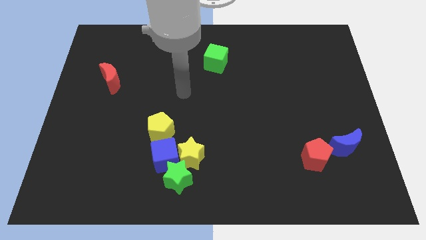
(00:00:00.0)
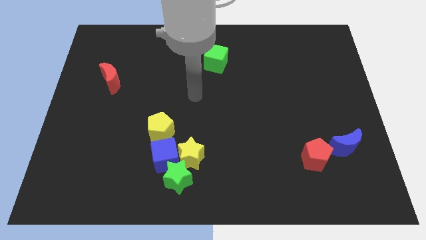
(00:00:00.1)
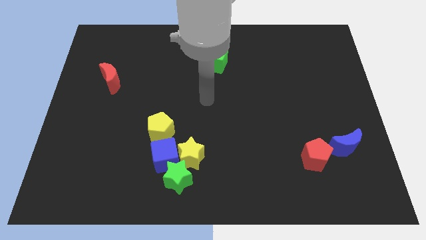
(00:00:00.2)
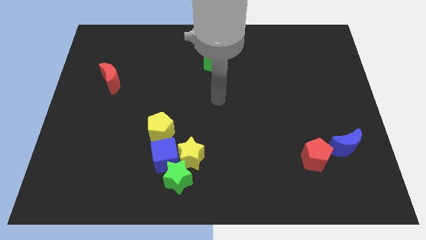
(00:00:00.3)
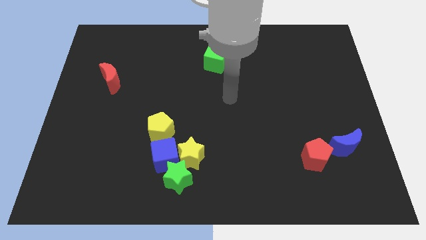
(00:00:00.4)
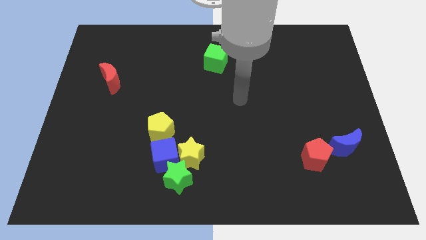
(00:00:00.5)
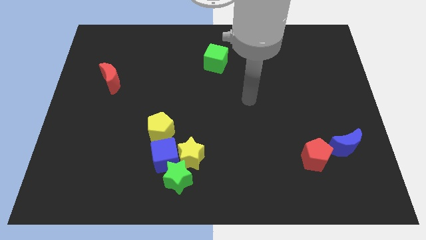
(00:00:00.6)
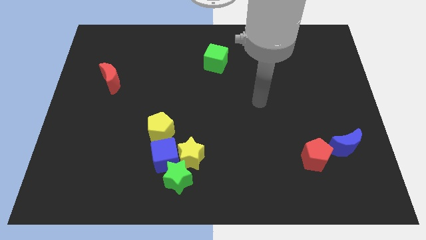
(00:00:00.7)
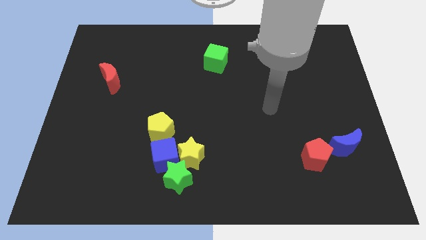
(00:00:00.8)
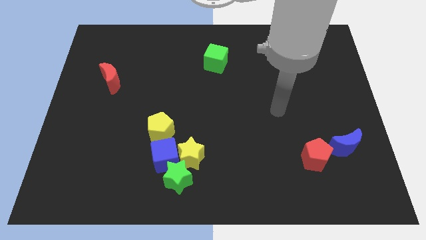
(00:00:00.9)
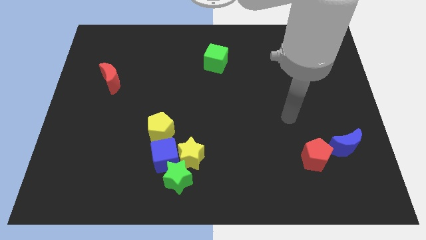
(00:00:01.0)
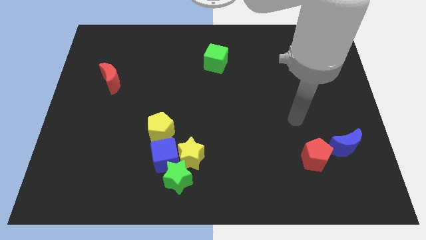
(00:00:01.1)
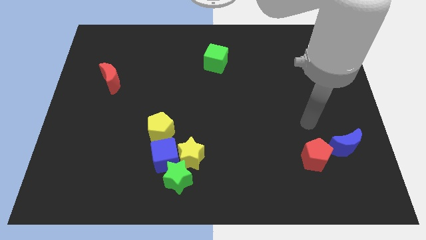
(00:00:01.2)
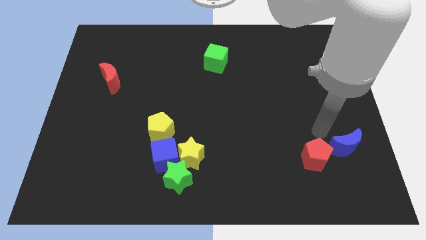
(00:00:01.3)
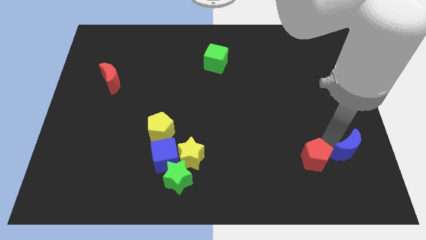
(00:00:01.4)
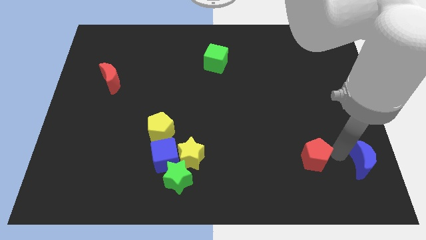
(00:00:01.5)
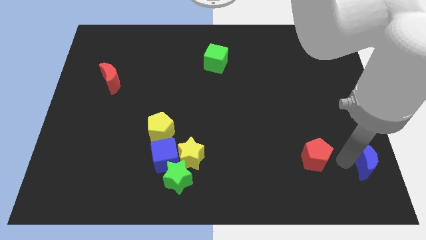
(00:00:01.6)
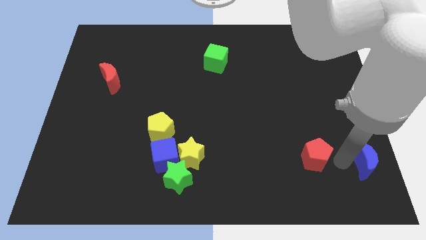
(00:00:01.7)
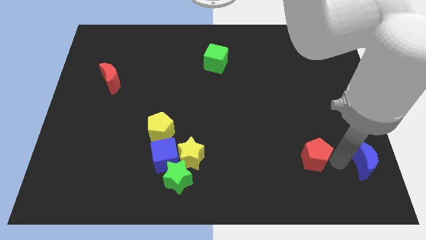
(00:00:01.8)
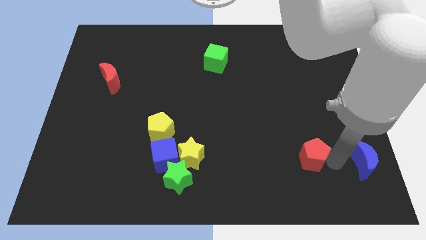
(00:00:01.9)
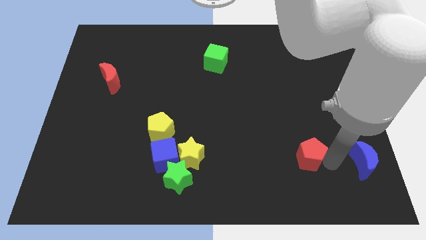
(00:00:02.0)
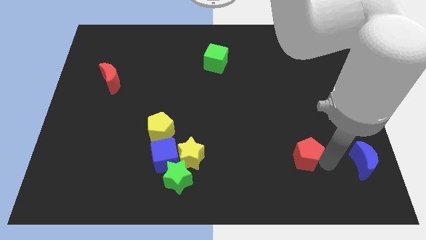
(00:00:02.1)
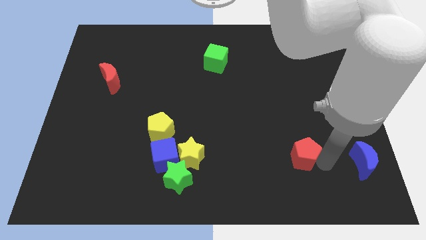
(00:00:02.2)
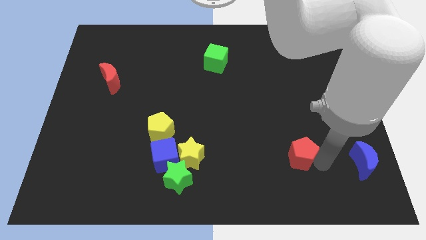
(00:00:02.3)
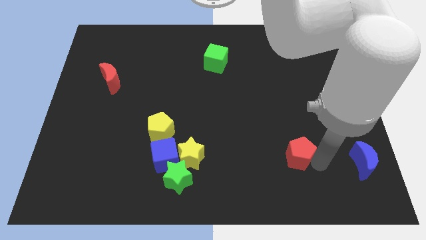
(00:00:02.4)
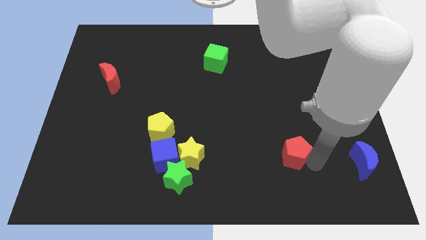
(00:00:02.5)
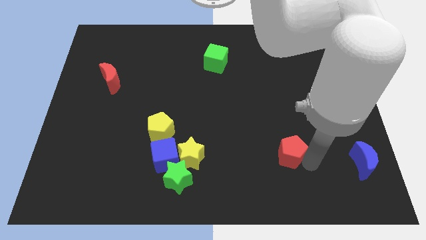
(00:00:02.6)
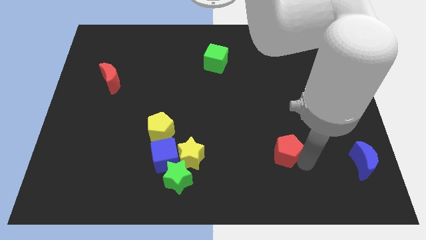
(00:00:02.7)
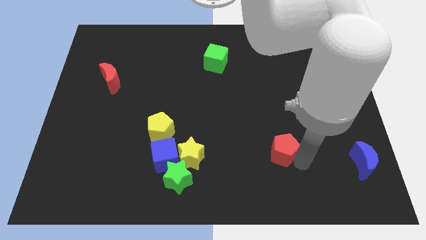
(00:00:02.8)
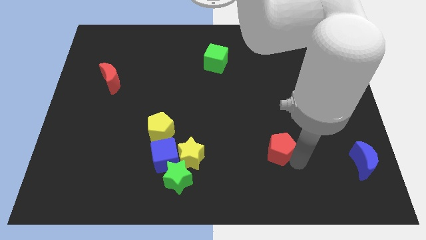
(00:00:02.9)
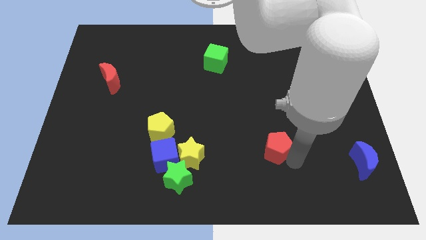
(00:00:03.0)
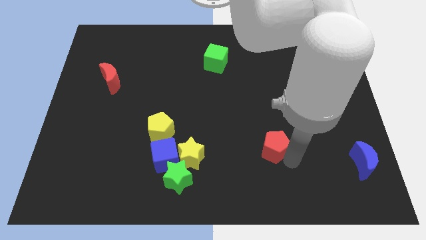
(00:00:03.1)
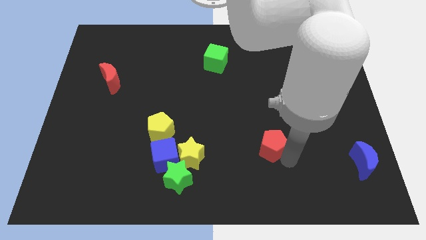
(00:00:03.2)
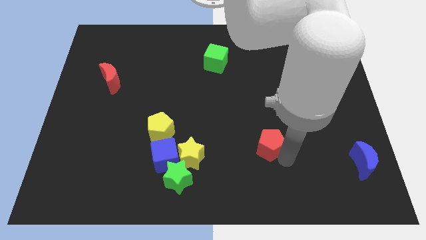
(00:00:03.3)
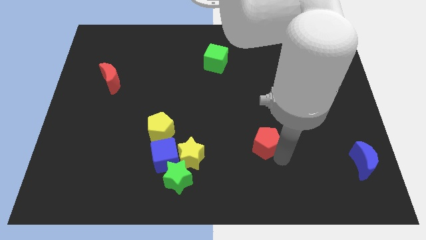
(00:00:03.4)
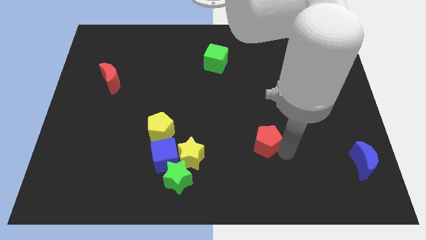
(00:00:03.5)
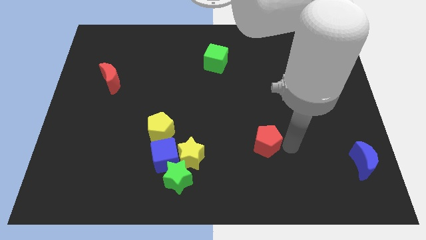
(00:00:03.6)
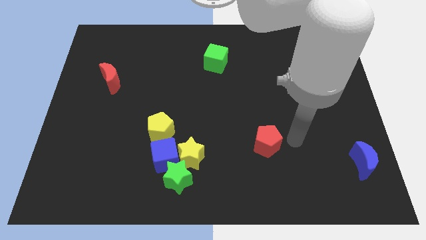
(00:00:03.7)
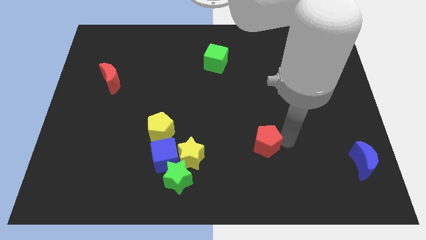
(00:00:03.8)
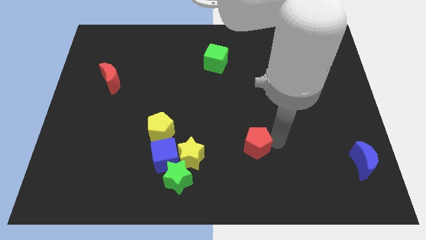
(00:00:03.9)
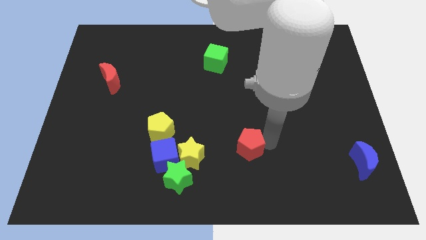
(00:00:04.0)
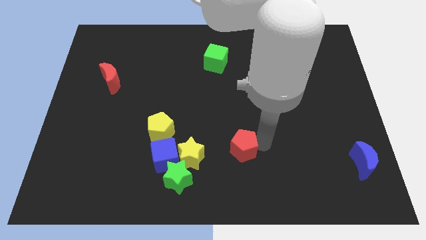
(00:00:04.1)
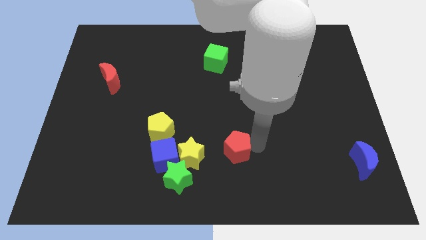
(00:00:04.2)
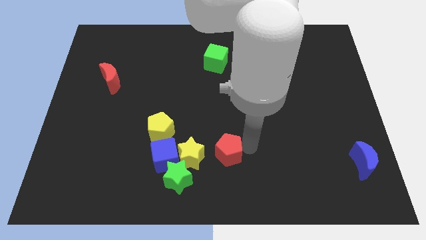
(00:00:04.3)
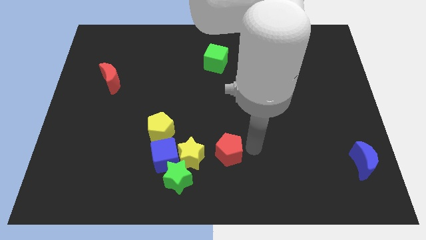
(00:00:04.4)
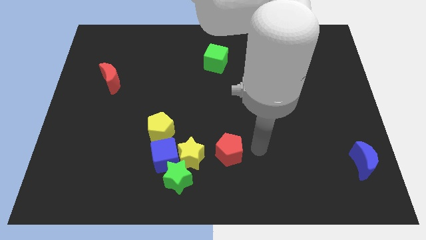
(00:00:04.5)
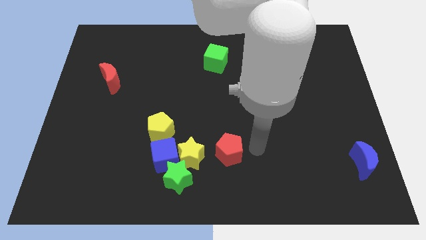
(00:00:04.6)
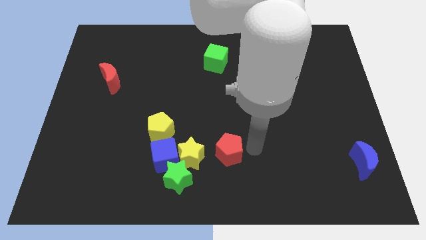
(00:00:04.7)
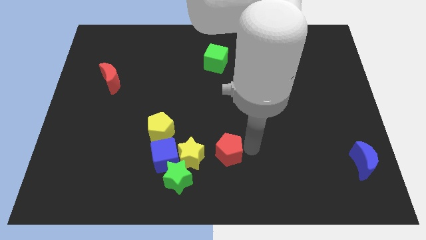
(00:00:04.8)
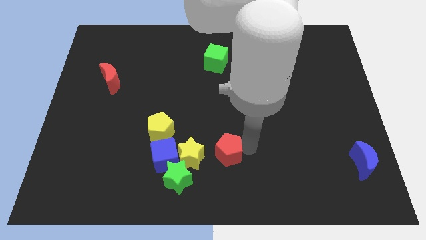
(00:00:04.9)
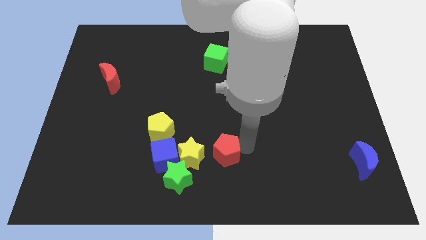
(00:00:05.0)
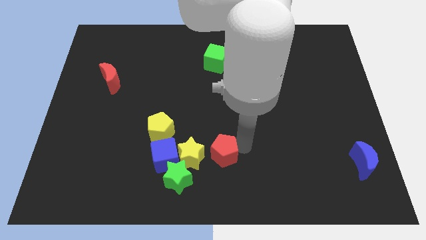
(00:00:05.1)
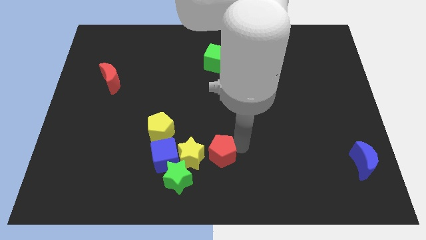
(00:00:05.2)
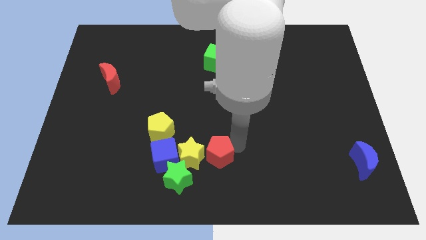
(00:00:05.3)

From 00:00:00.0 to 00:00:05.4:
slide the red pentagon to the yellow star

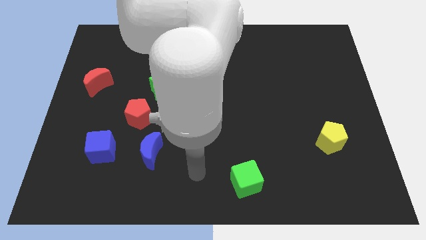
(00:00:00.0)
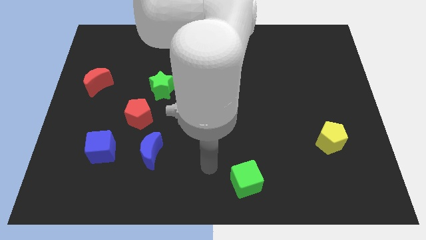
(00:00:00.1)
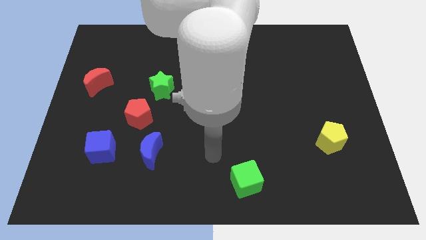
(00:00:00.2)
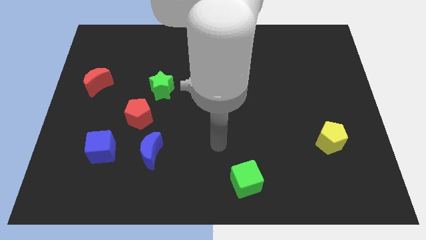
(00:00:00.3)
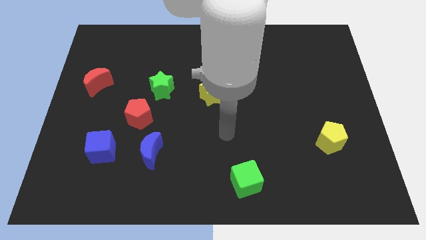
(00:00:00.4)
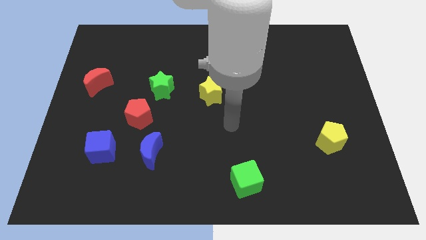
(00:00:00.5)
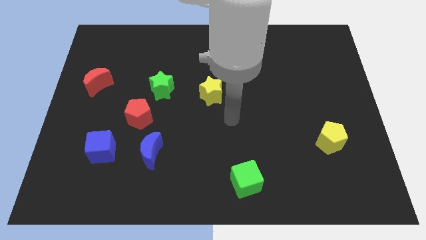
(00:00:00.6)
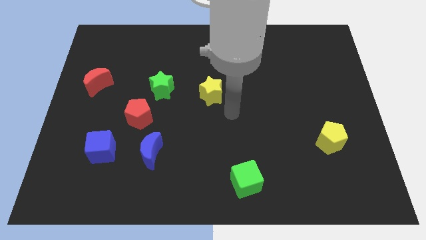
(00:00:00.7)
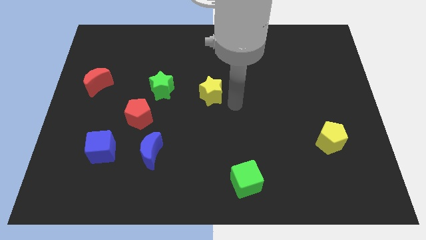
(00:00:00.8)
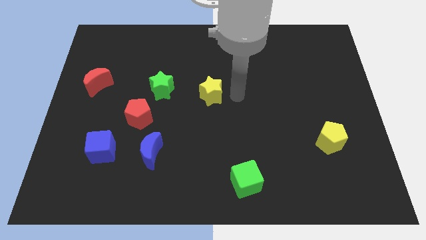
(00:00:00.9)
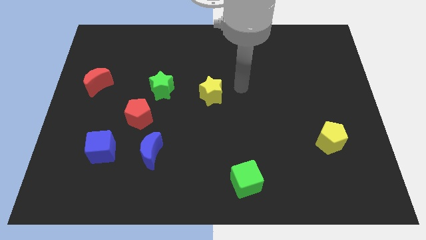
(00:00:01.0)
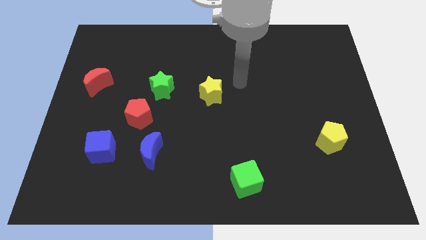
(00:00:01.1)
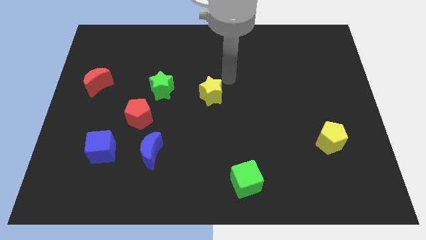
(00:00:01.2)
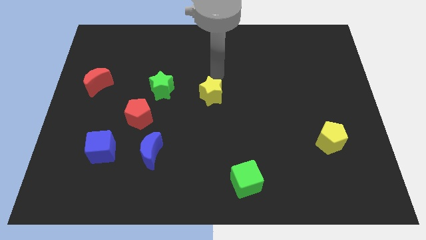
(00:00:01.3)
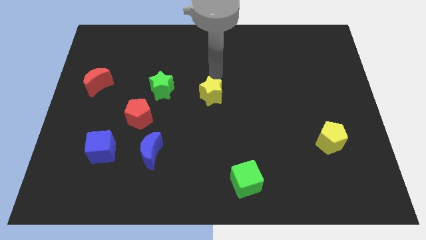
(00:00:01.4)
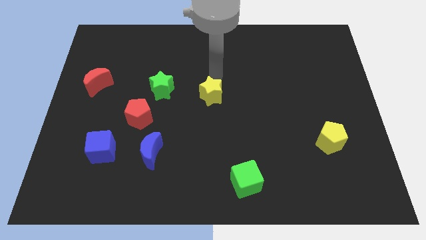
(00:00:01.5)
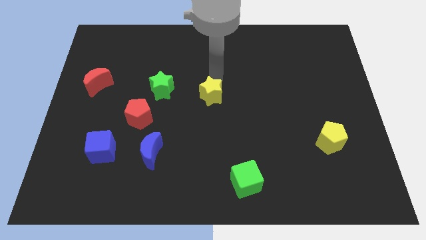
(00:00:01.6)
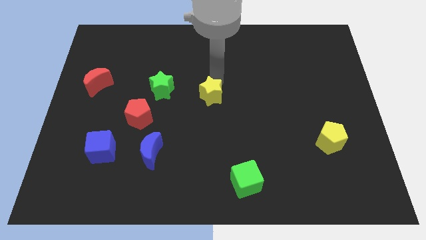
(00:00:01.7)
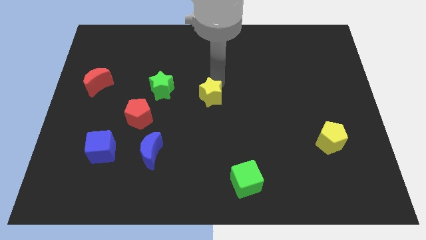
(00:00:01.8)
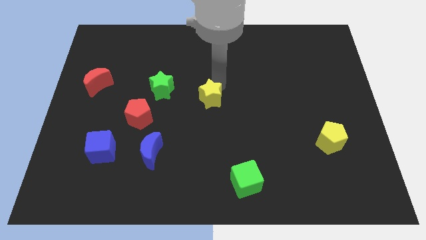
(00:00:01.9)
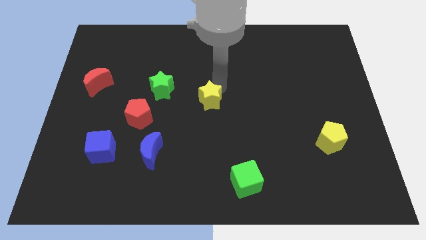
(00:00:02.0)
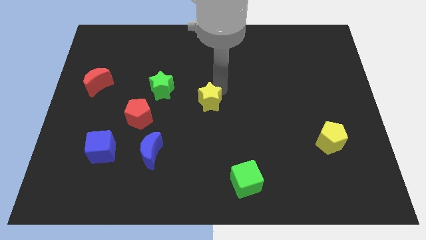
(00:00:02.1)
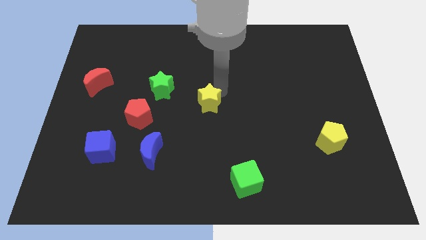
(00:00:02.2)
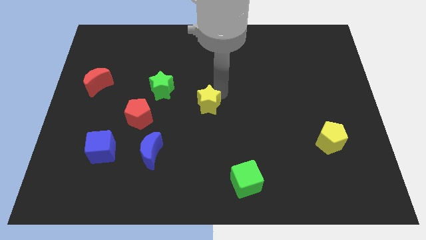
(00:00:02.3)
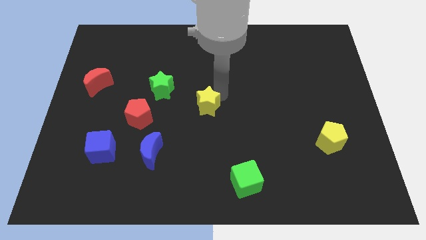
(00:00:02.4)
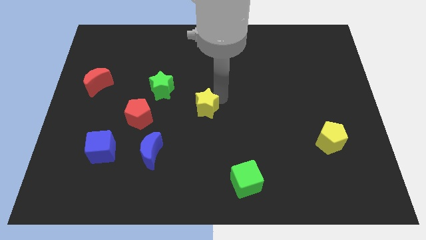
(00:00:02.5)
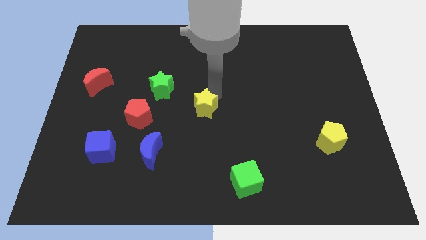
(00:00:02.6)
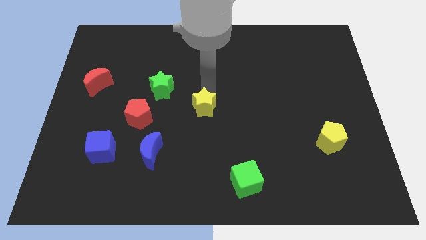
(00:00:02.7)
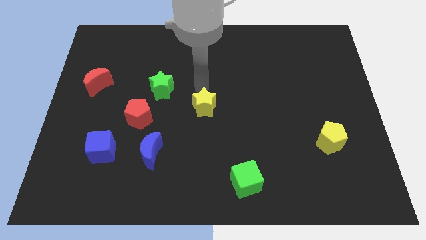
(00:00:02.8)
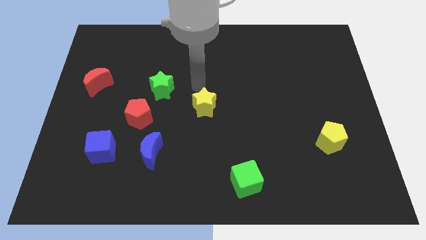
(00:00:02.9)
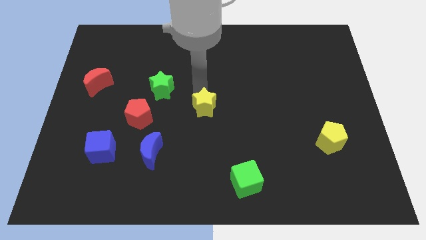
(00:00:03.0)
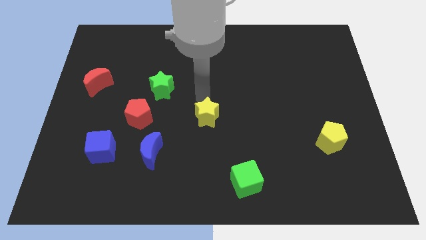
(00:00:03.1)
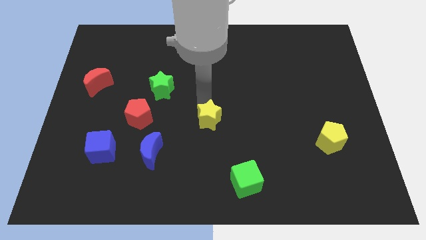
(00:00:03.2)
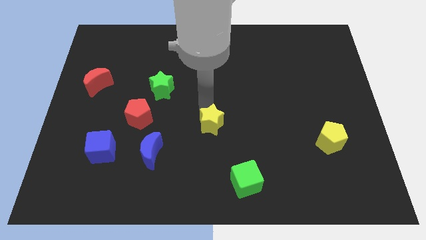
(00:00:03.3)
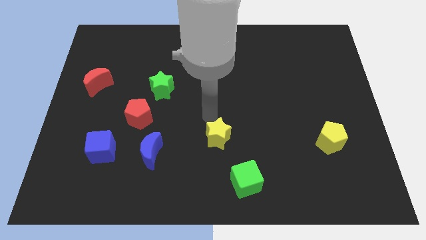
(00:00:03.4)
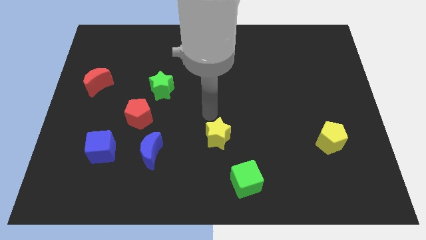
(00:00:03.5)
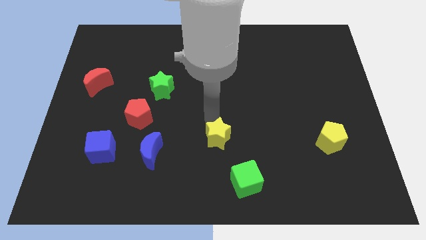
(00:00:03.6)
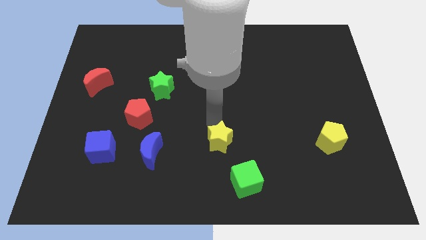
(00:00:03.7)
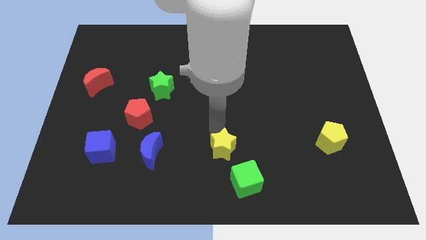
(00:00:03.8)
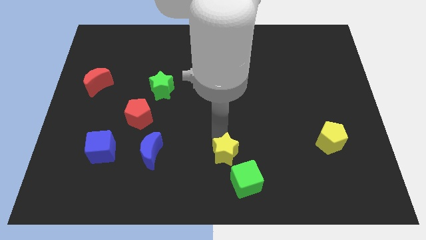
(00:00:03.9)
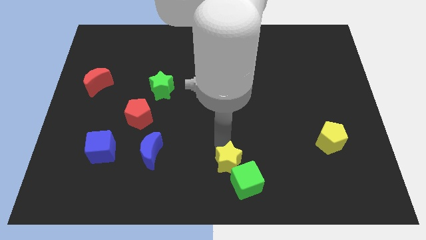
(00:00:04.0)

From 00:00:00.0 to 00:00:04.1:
put the yellow star close to the green cube
